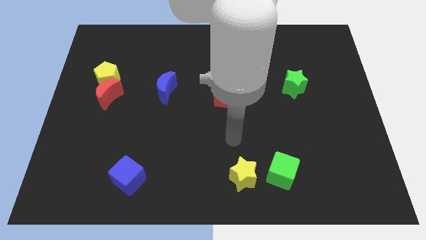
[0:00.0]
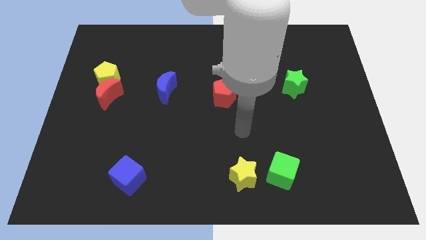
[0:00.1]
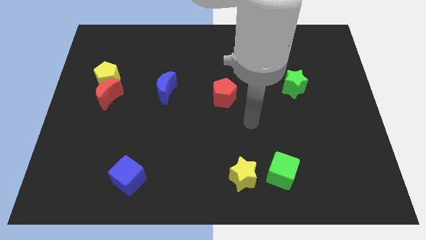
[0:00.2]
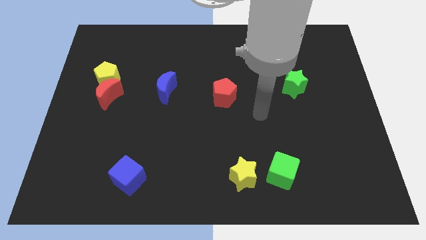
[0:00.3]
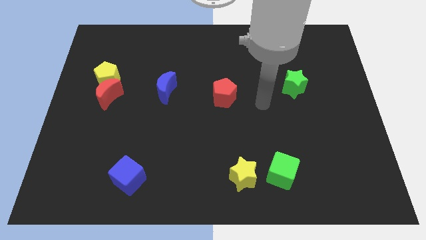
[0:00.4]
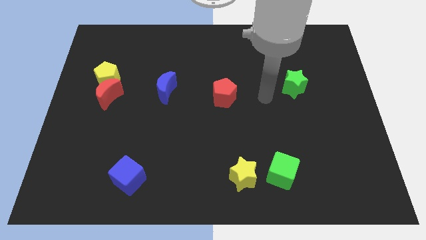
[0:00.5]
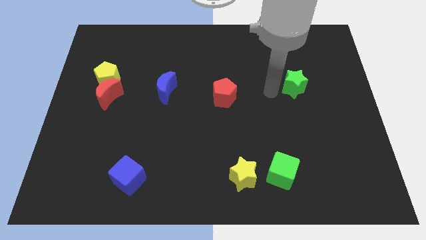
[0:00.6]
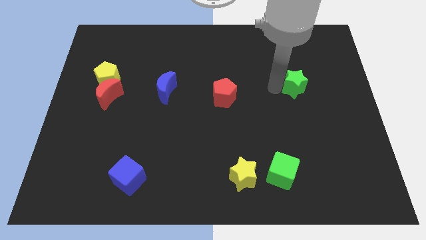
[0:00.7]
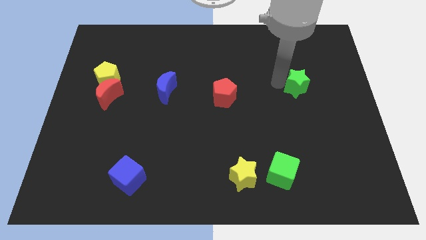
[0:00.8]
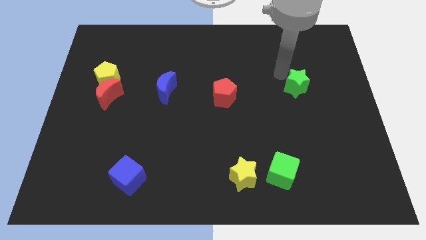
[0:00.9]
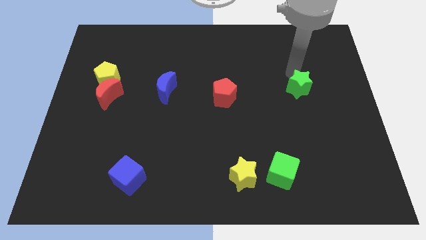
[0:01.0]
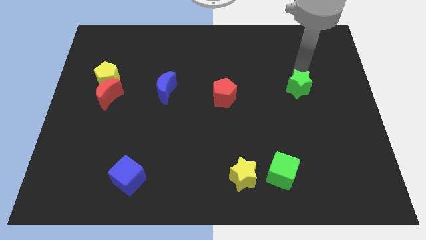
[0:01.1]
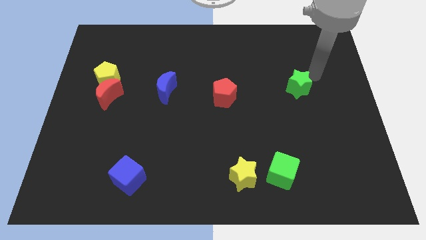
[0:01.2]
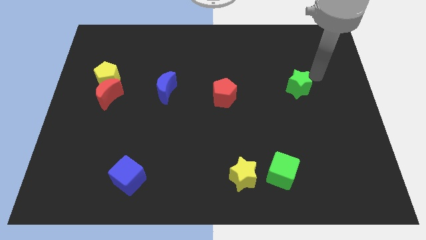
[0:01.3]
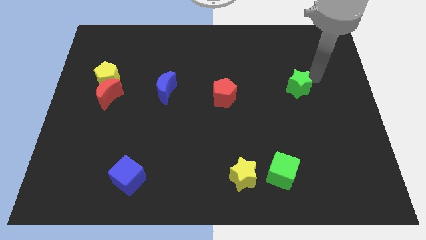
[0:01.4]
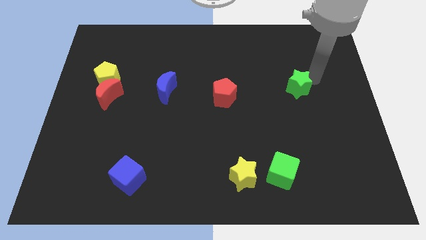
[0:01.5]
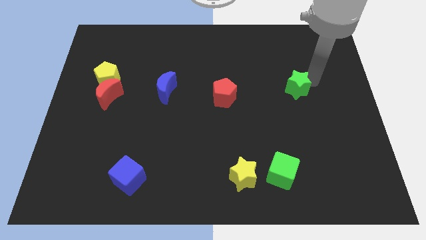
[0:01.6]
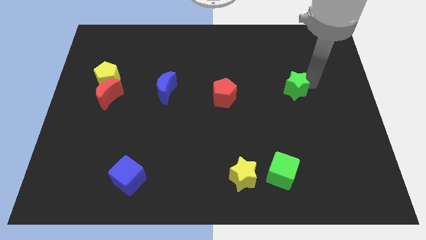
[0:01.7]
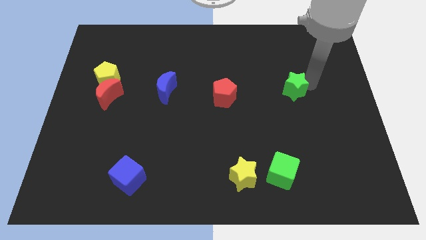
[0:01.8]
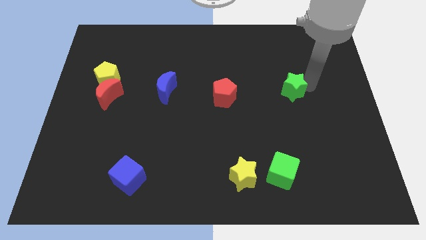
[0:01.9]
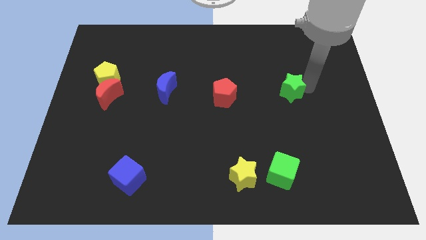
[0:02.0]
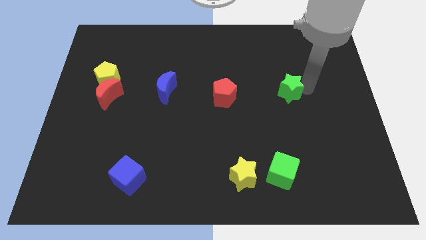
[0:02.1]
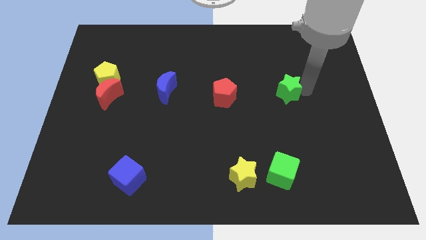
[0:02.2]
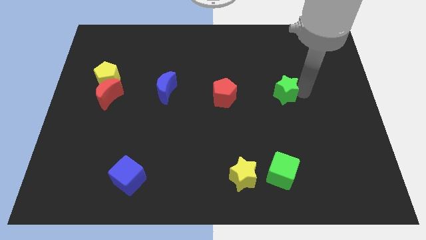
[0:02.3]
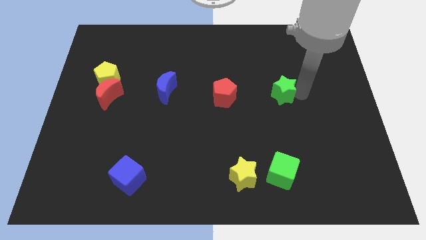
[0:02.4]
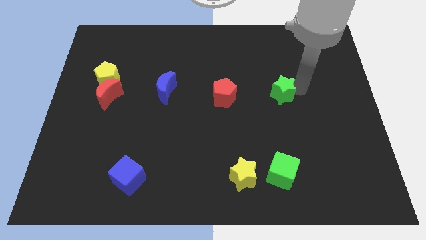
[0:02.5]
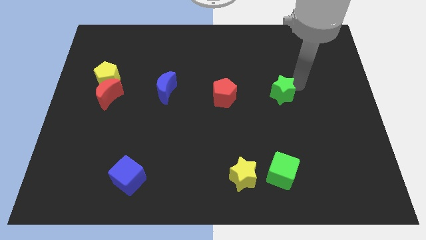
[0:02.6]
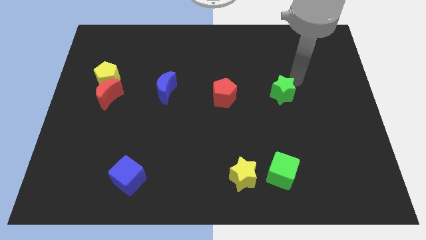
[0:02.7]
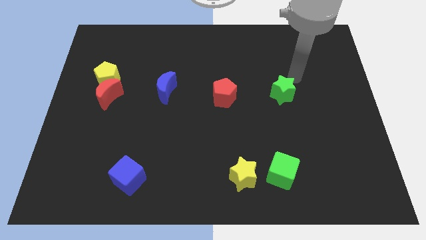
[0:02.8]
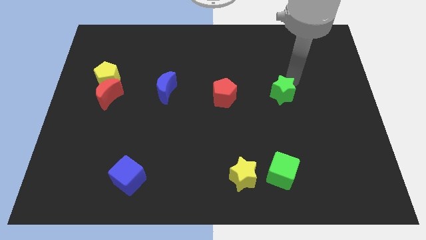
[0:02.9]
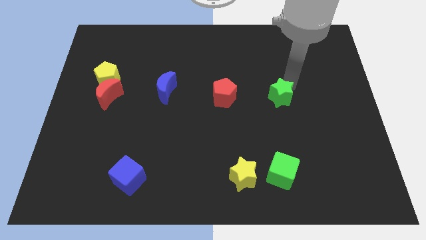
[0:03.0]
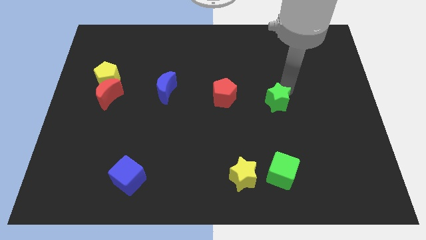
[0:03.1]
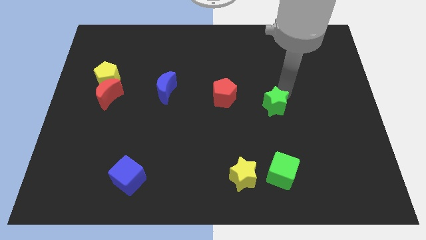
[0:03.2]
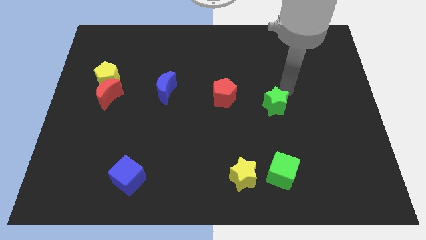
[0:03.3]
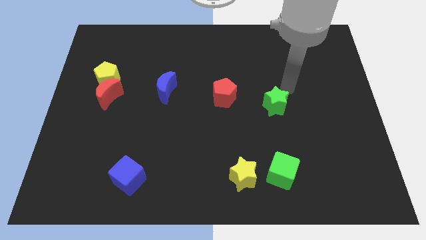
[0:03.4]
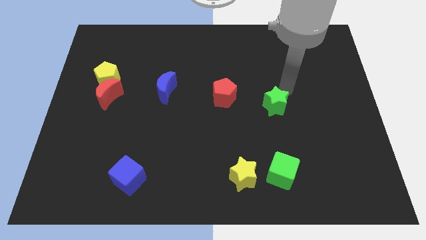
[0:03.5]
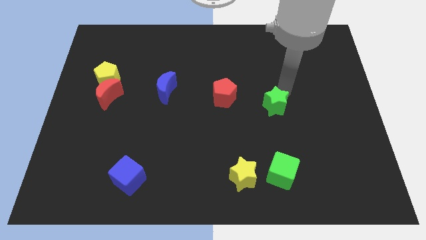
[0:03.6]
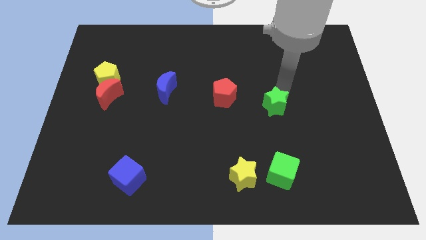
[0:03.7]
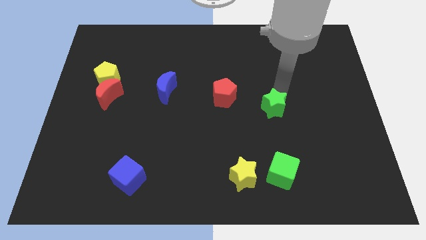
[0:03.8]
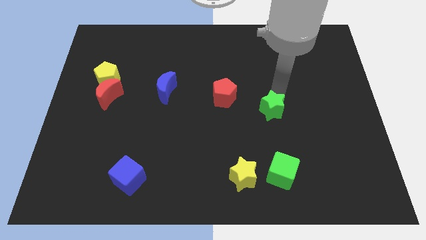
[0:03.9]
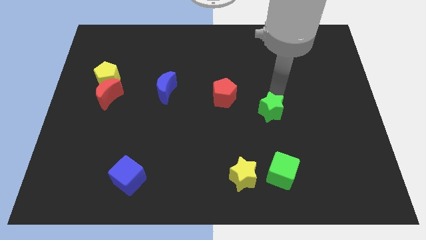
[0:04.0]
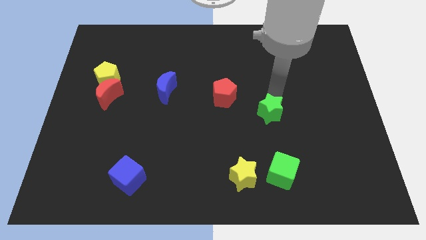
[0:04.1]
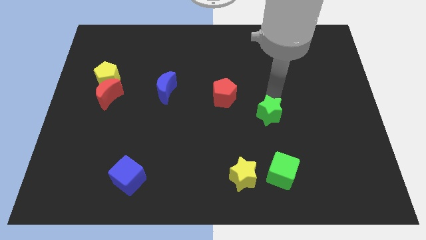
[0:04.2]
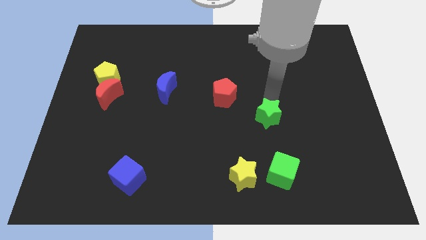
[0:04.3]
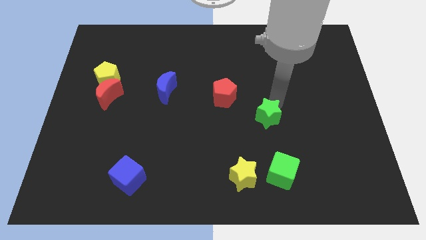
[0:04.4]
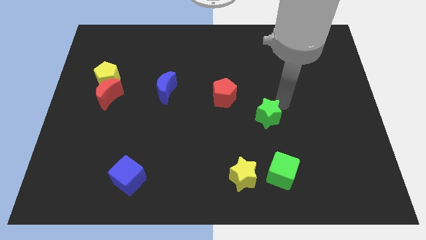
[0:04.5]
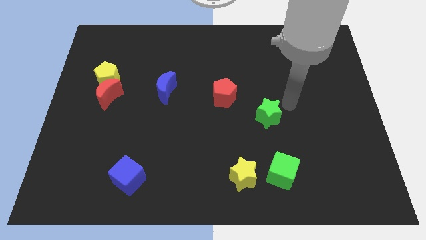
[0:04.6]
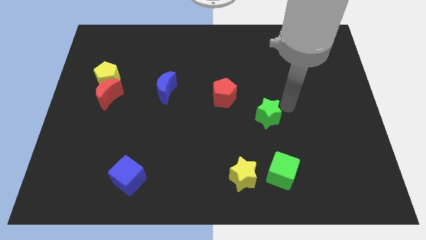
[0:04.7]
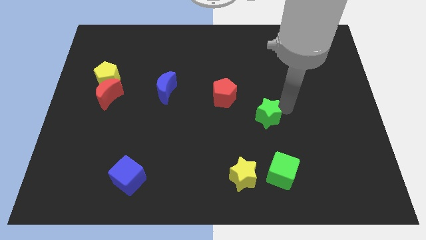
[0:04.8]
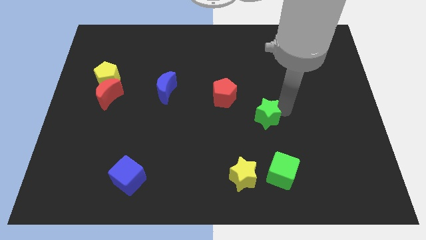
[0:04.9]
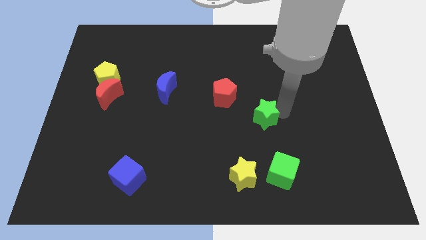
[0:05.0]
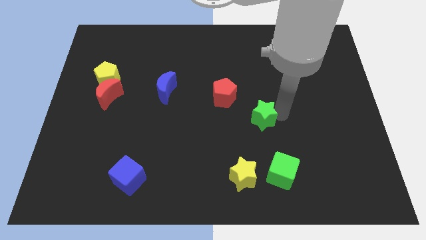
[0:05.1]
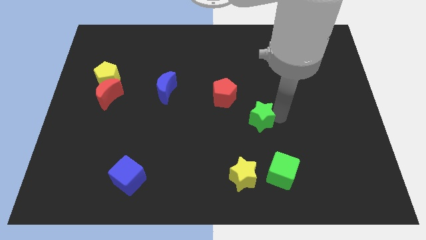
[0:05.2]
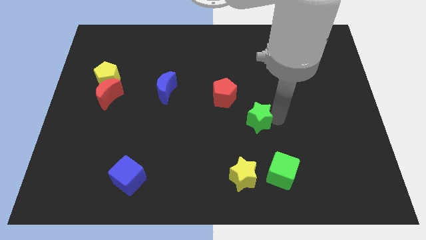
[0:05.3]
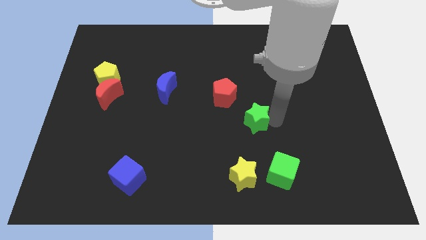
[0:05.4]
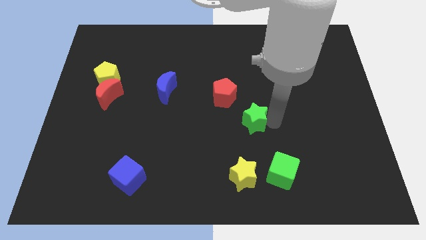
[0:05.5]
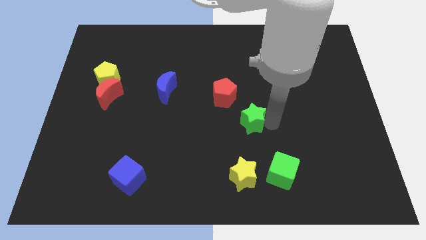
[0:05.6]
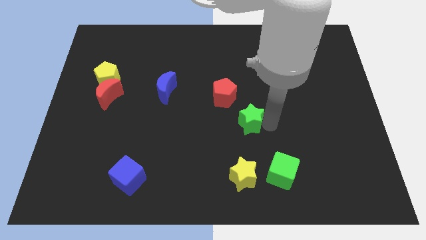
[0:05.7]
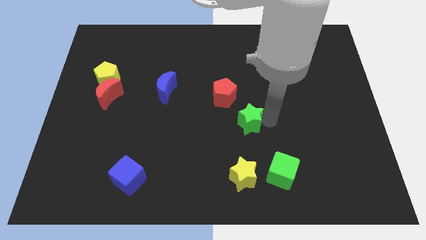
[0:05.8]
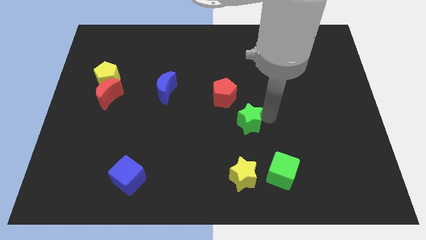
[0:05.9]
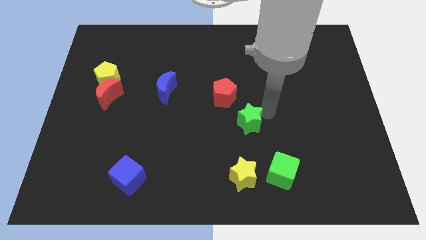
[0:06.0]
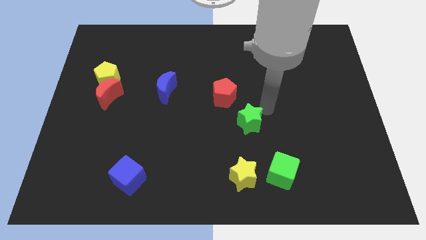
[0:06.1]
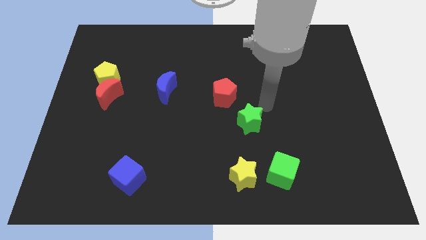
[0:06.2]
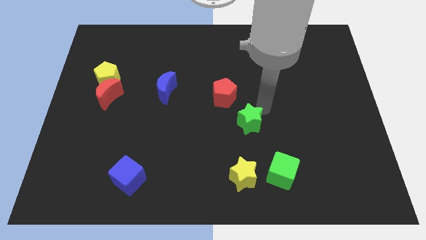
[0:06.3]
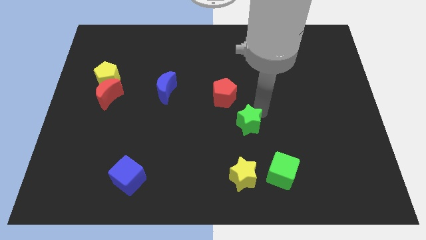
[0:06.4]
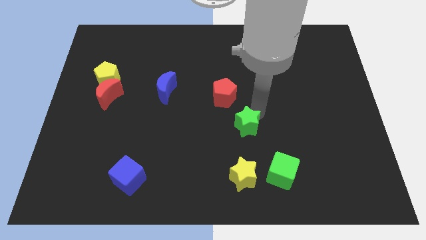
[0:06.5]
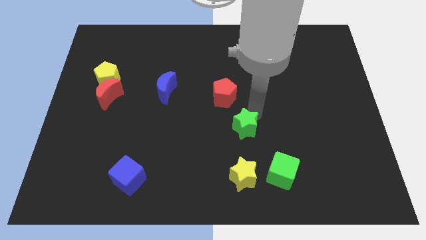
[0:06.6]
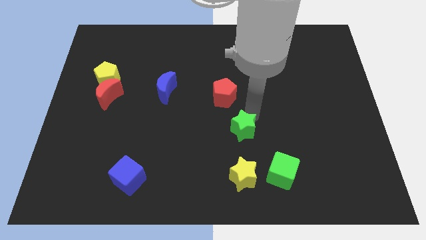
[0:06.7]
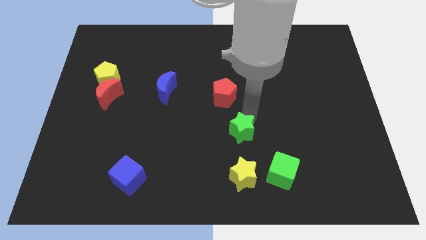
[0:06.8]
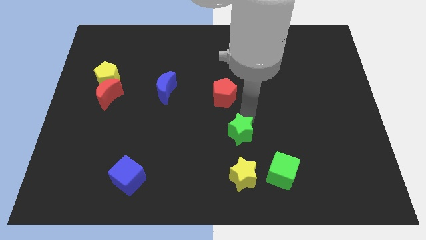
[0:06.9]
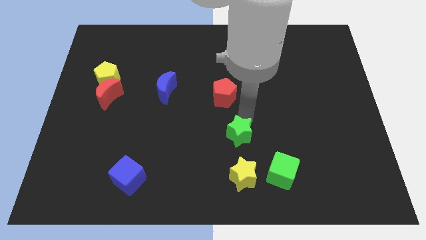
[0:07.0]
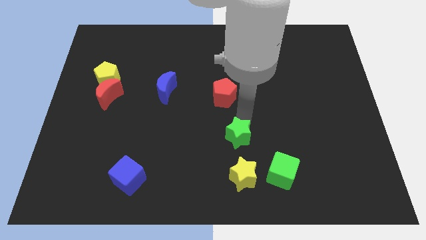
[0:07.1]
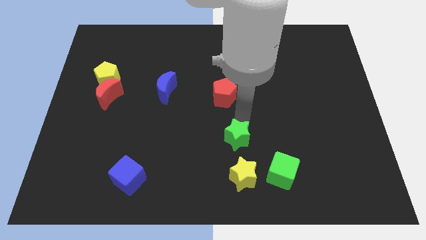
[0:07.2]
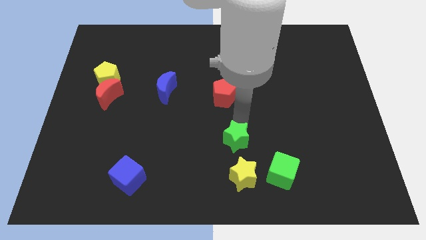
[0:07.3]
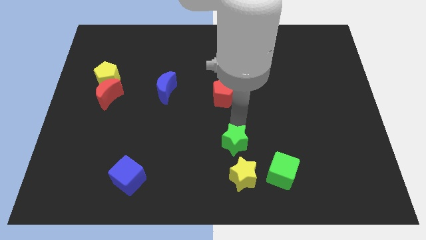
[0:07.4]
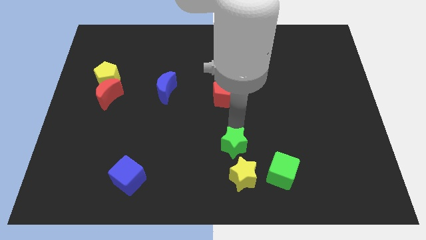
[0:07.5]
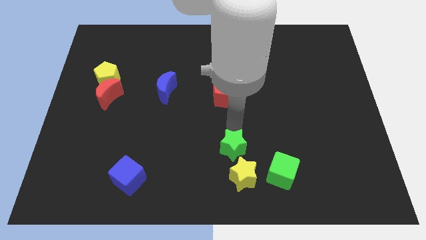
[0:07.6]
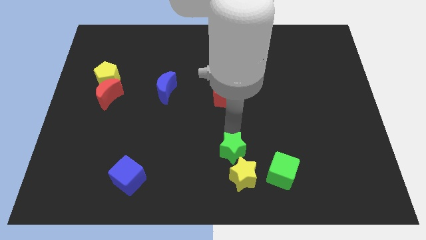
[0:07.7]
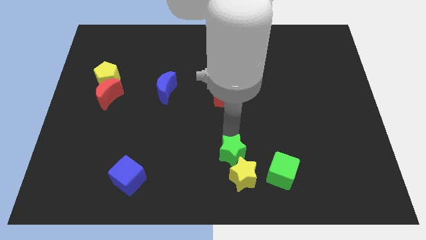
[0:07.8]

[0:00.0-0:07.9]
put the green star to the left of the green cube
